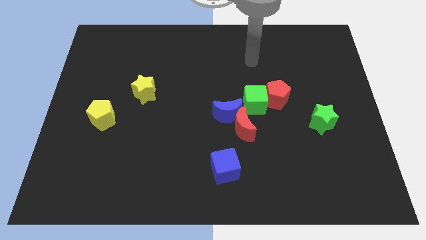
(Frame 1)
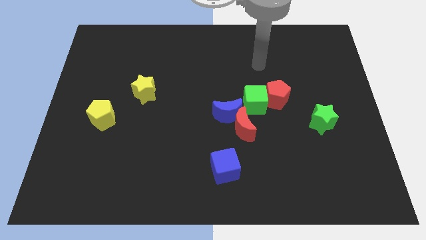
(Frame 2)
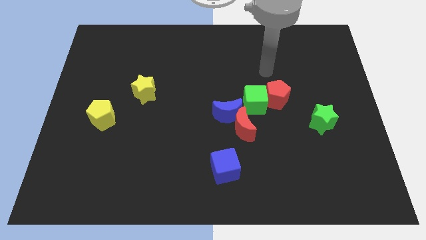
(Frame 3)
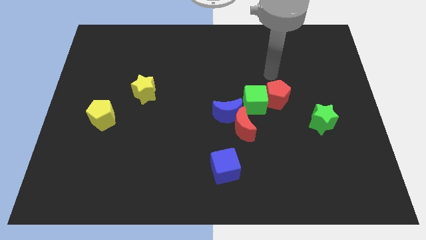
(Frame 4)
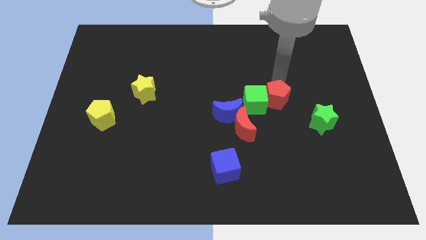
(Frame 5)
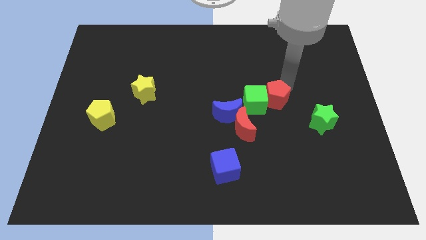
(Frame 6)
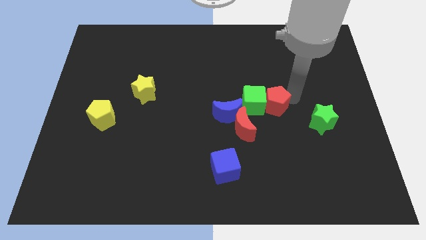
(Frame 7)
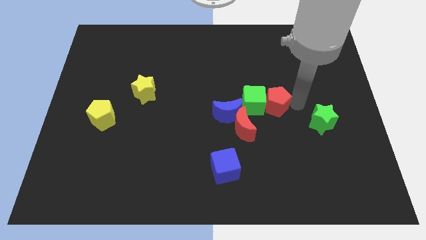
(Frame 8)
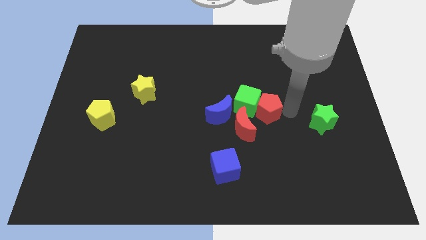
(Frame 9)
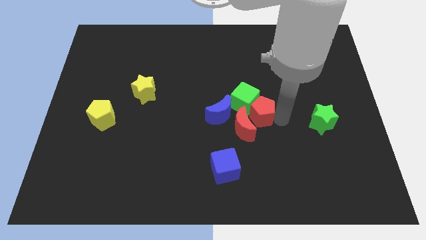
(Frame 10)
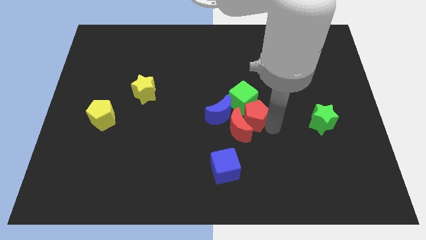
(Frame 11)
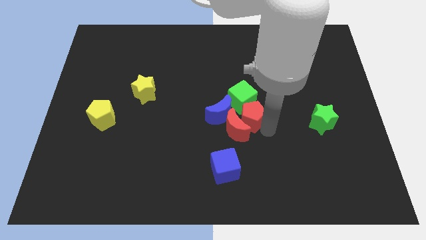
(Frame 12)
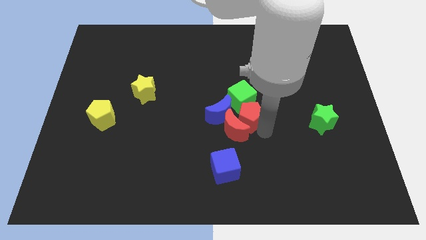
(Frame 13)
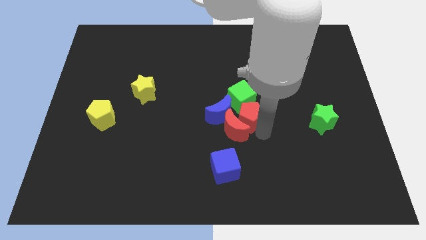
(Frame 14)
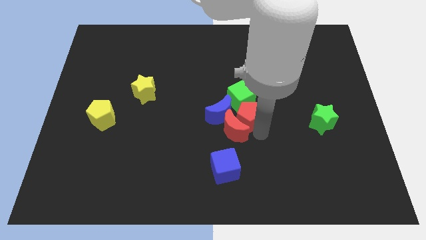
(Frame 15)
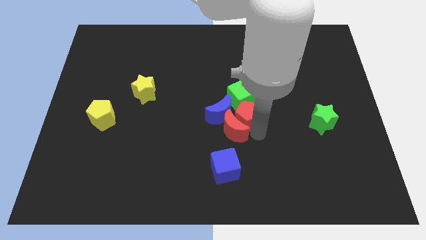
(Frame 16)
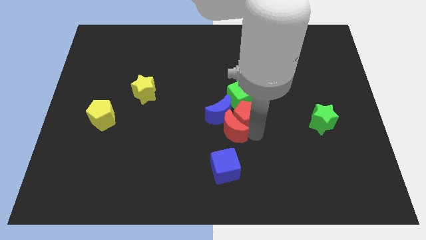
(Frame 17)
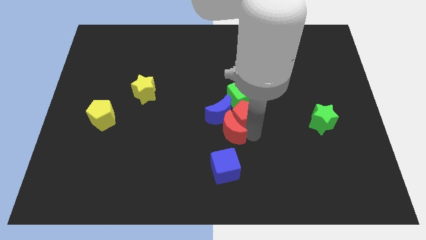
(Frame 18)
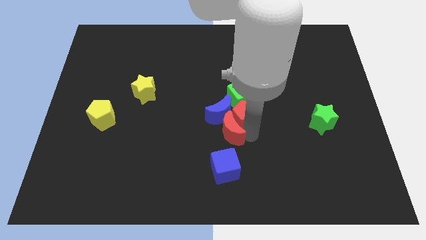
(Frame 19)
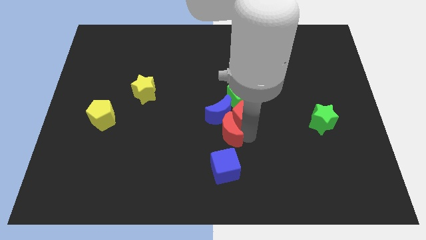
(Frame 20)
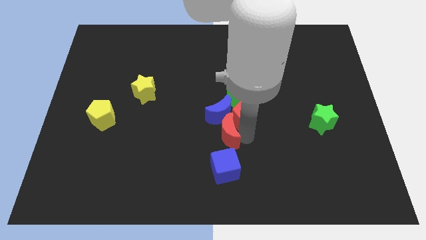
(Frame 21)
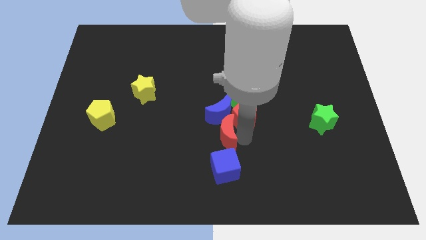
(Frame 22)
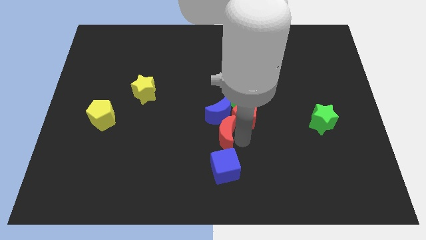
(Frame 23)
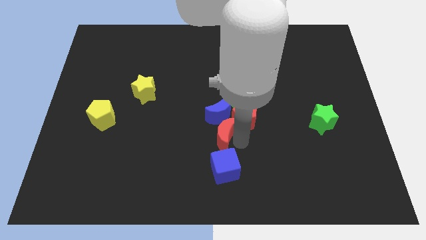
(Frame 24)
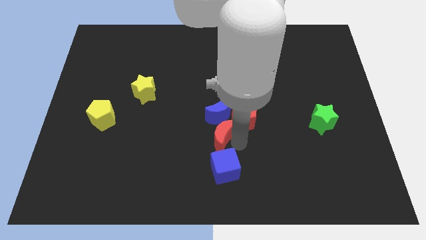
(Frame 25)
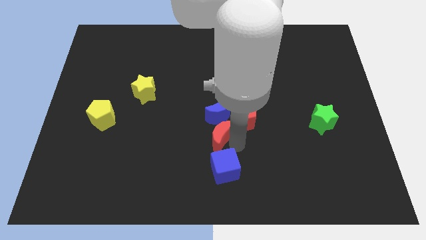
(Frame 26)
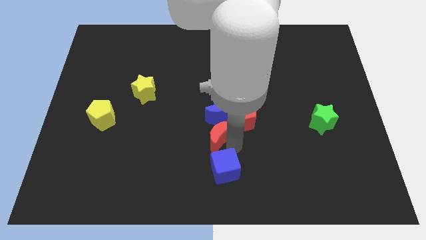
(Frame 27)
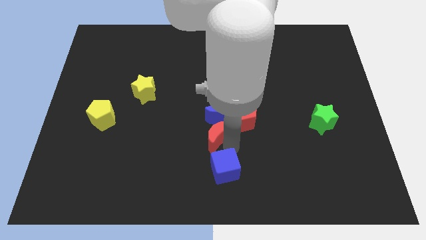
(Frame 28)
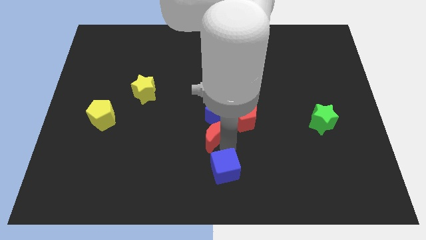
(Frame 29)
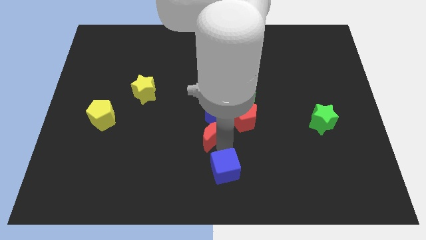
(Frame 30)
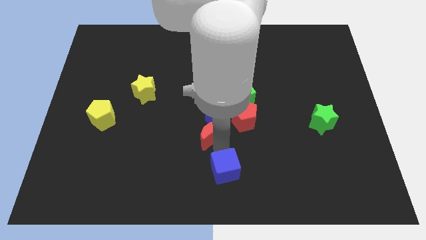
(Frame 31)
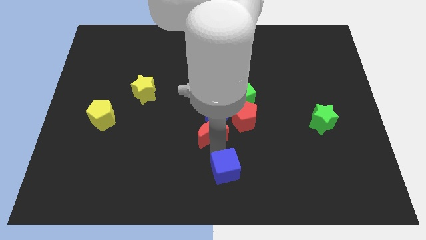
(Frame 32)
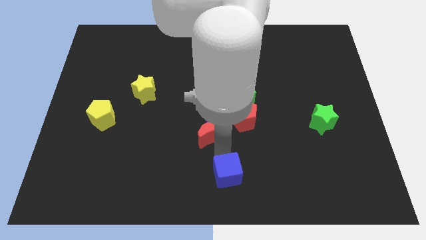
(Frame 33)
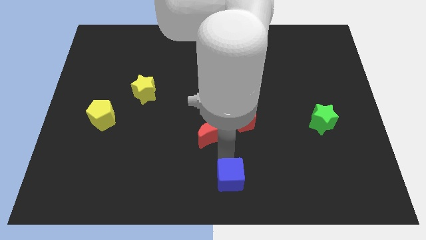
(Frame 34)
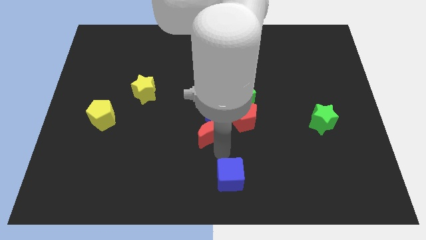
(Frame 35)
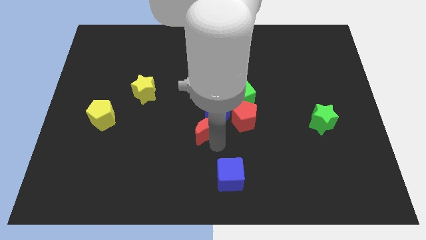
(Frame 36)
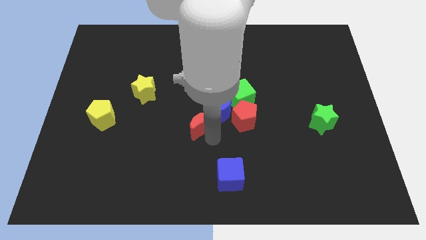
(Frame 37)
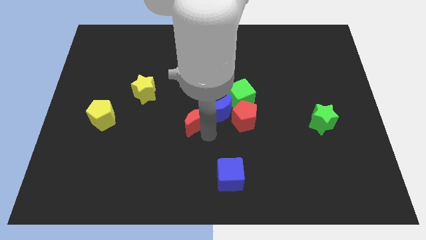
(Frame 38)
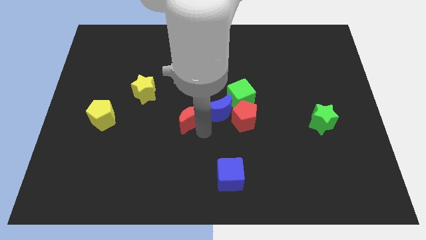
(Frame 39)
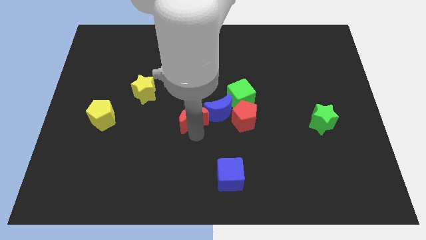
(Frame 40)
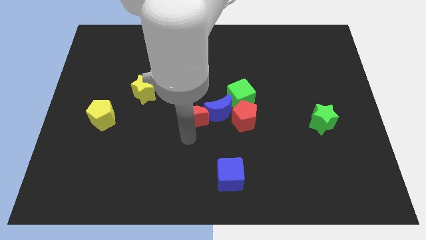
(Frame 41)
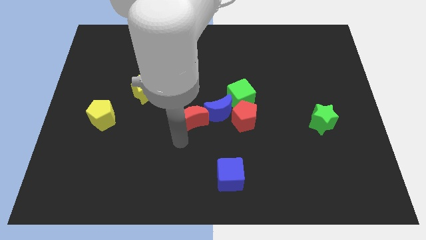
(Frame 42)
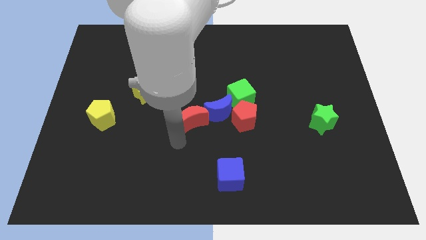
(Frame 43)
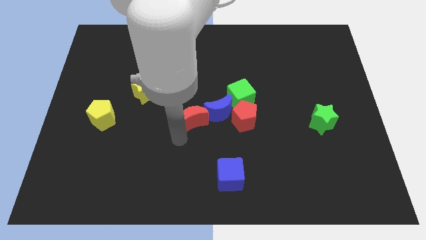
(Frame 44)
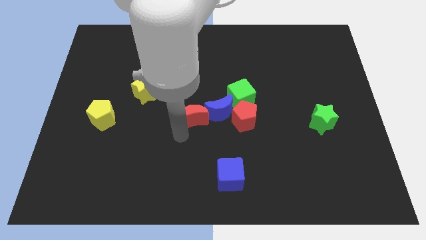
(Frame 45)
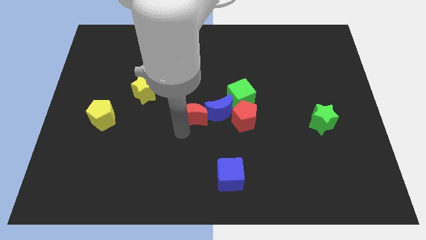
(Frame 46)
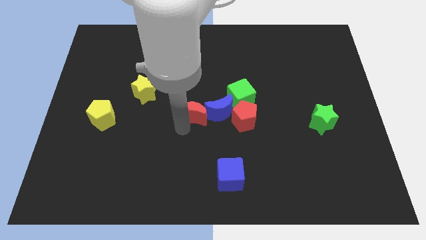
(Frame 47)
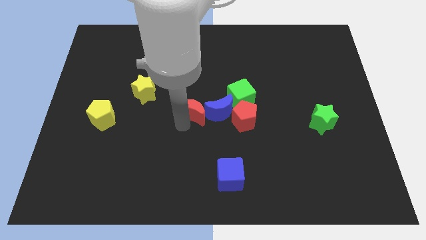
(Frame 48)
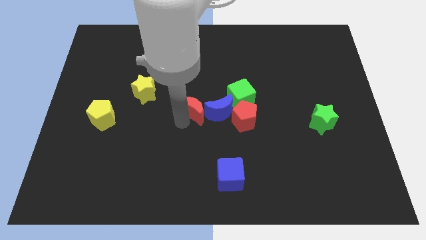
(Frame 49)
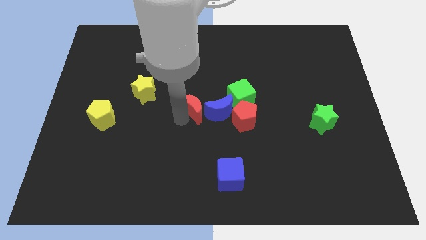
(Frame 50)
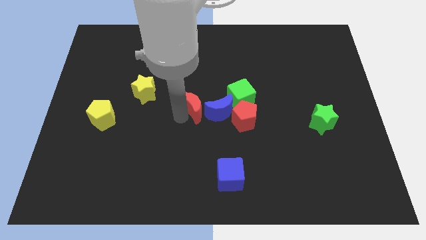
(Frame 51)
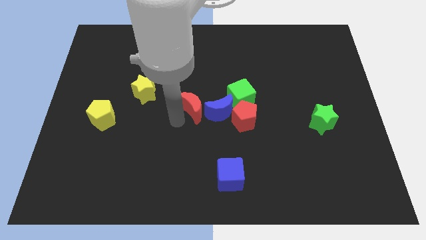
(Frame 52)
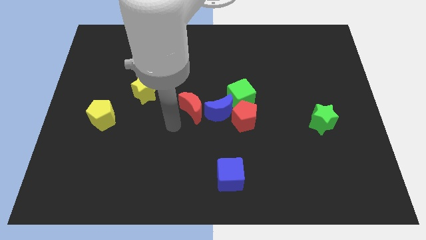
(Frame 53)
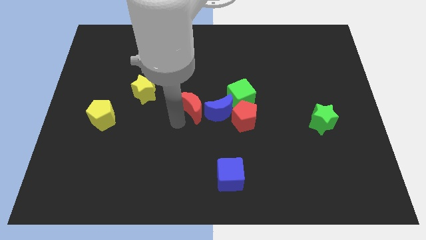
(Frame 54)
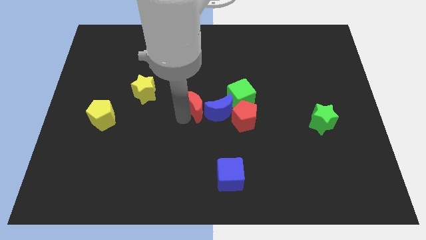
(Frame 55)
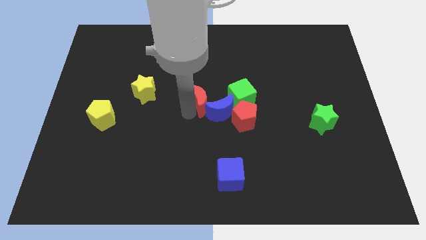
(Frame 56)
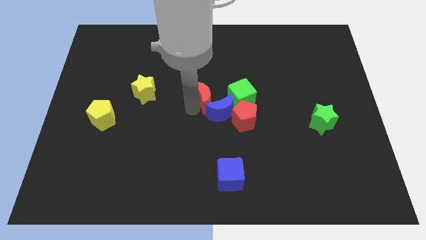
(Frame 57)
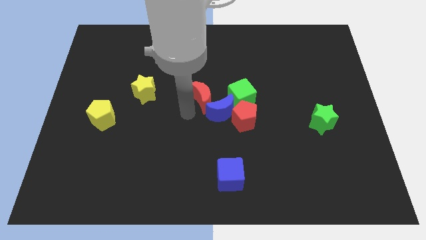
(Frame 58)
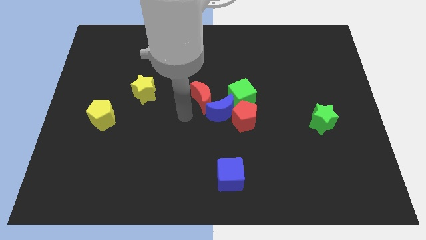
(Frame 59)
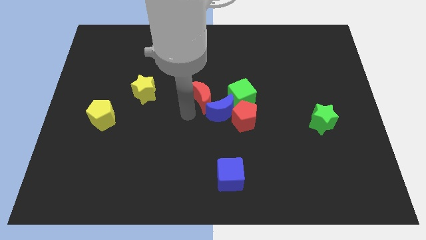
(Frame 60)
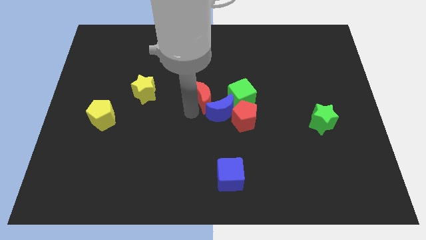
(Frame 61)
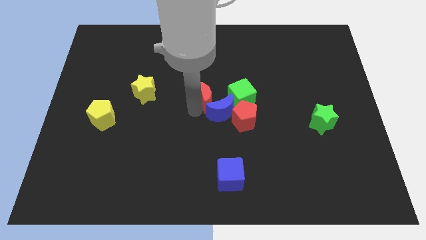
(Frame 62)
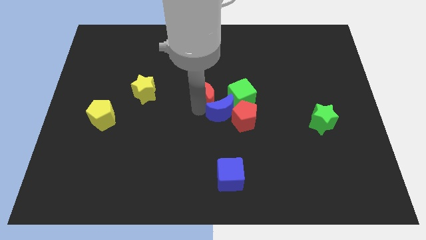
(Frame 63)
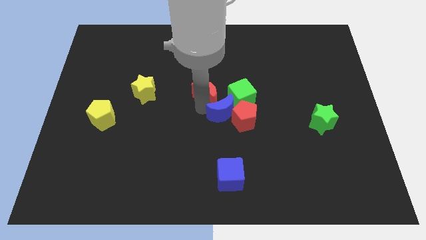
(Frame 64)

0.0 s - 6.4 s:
slightly move the red moon up

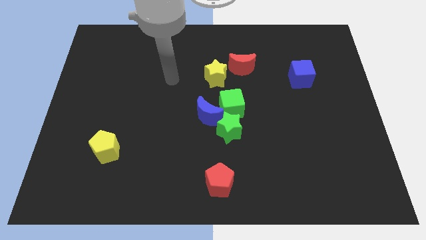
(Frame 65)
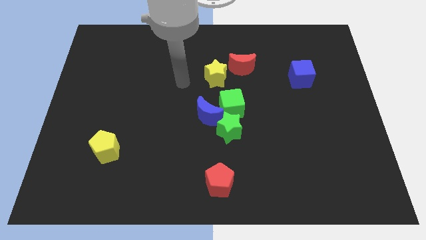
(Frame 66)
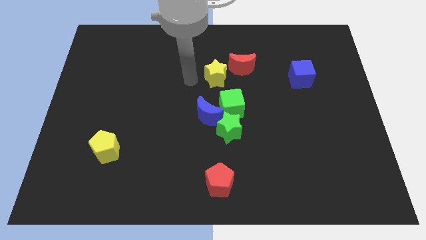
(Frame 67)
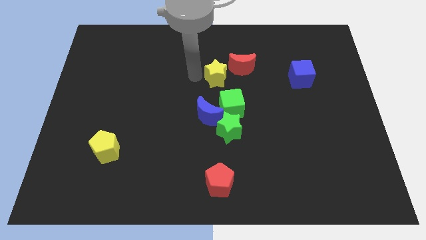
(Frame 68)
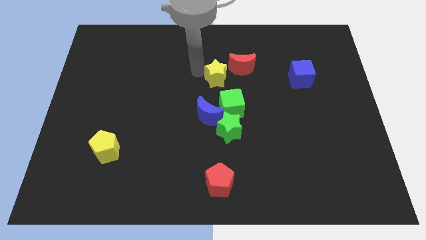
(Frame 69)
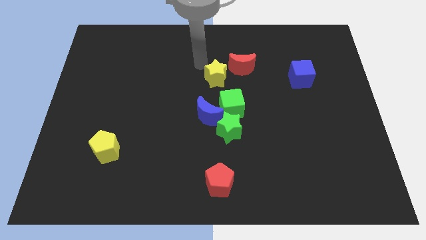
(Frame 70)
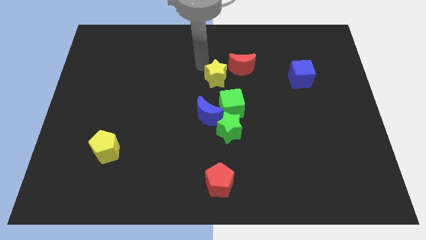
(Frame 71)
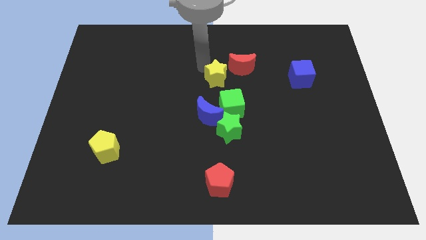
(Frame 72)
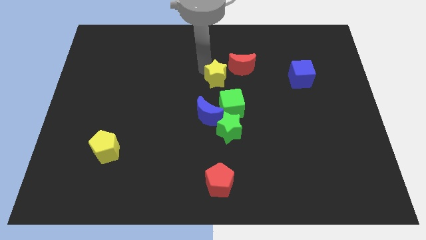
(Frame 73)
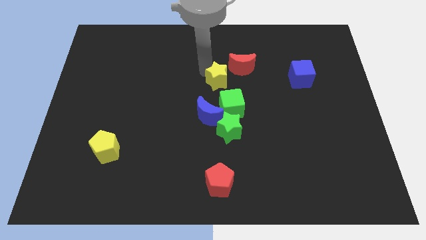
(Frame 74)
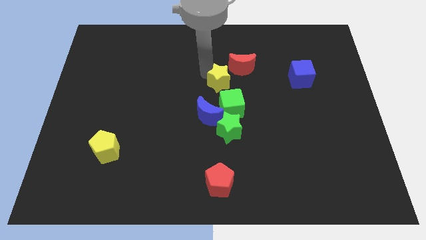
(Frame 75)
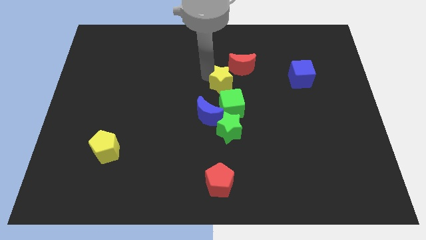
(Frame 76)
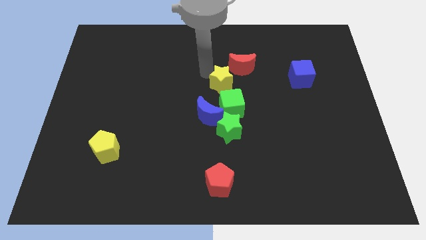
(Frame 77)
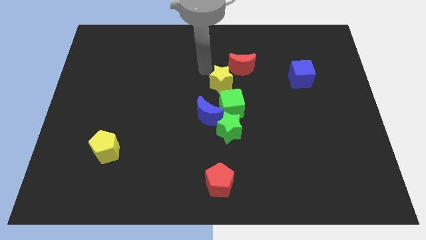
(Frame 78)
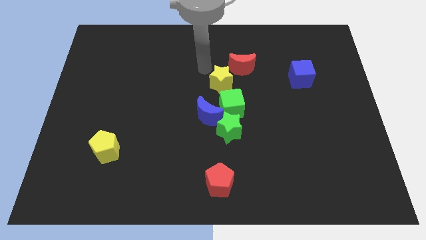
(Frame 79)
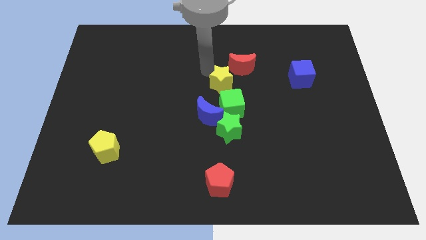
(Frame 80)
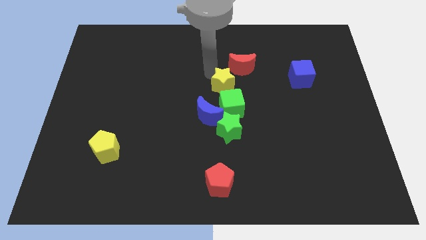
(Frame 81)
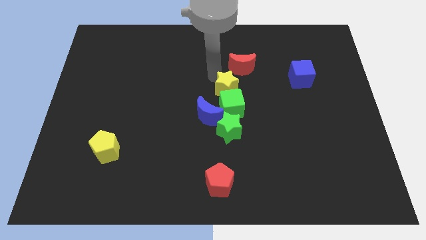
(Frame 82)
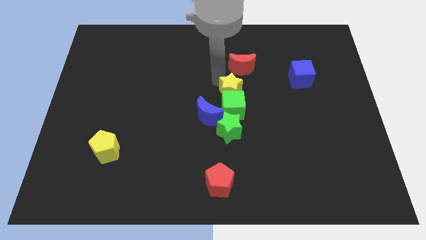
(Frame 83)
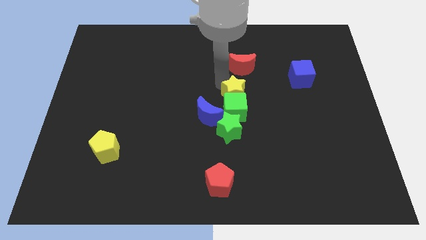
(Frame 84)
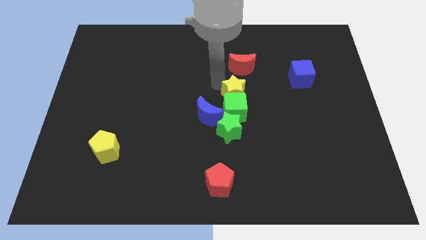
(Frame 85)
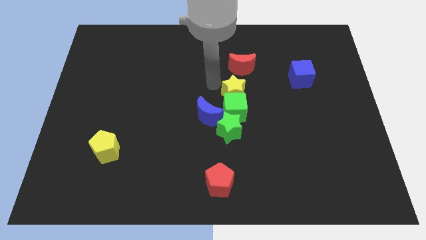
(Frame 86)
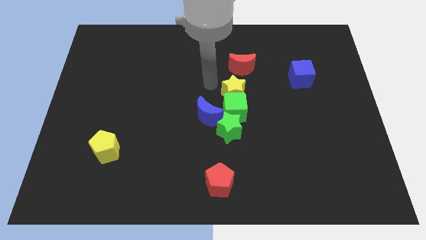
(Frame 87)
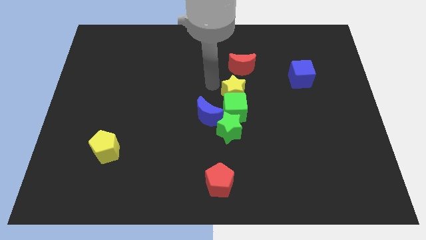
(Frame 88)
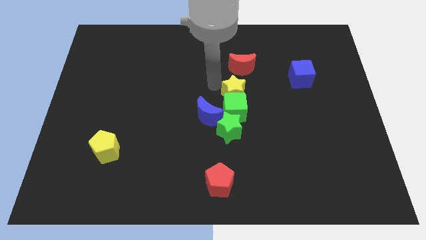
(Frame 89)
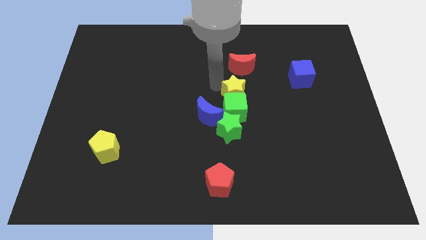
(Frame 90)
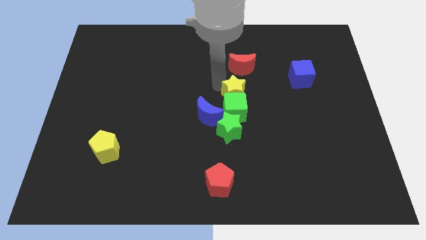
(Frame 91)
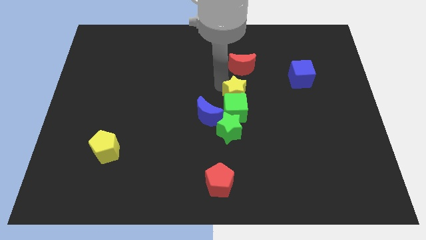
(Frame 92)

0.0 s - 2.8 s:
slide the yellow star diagonally down and to the right a bit
